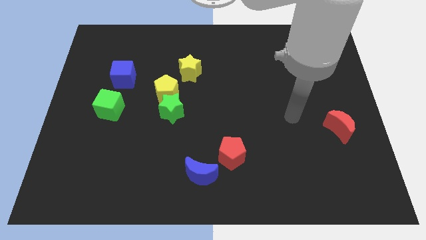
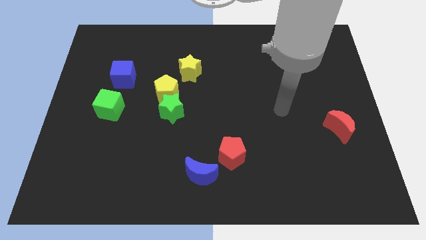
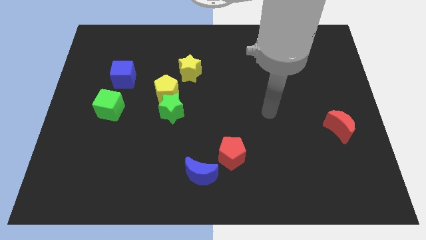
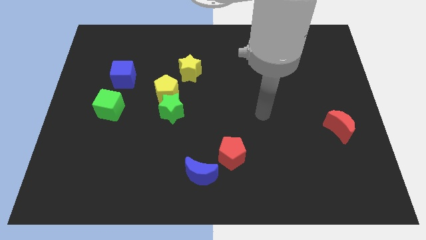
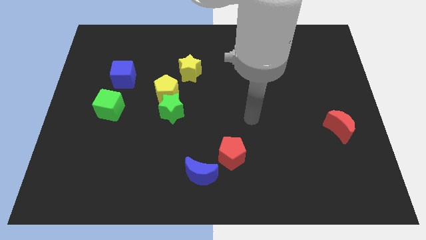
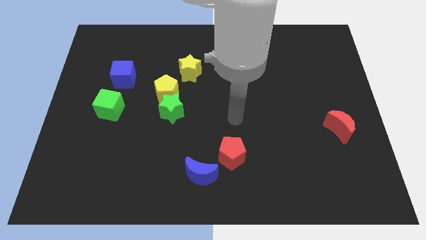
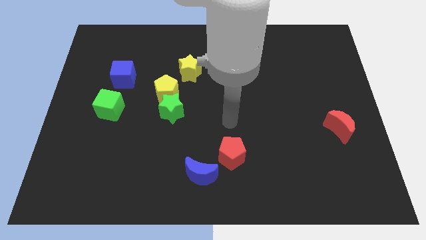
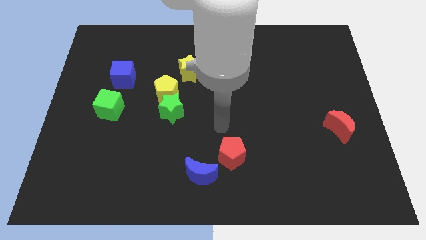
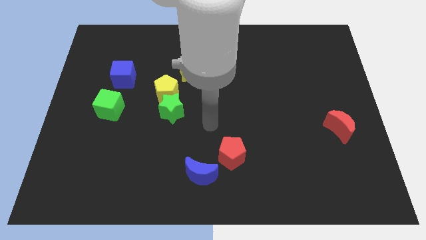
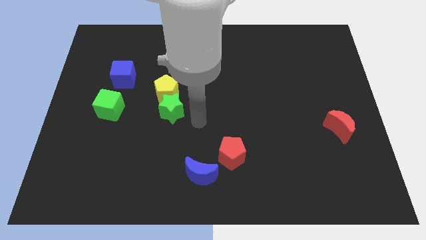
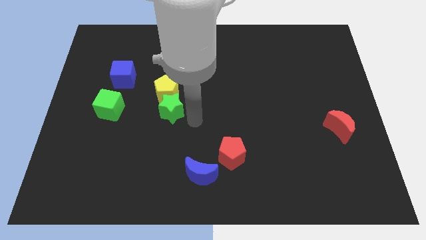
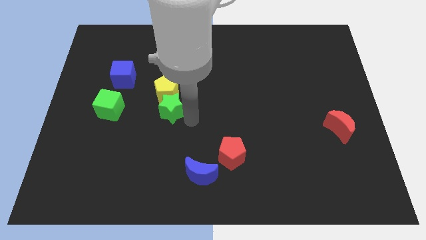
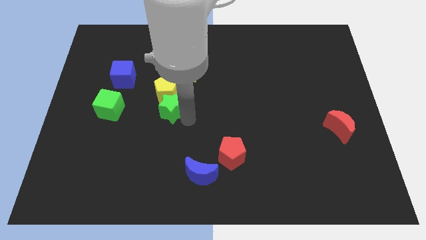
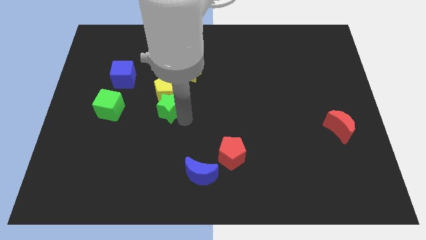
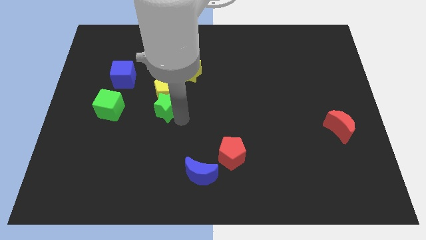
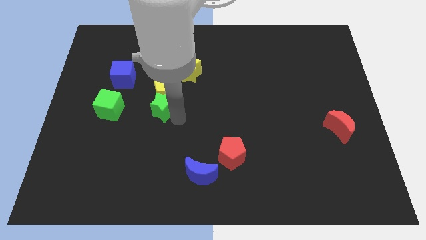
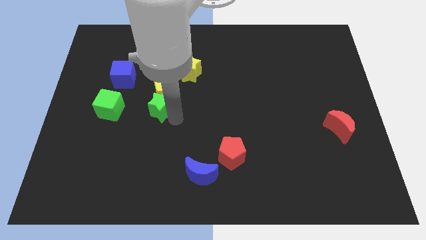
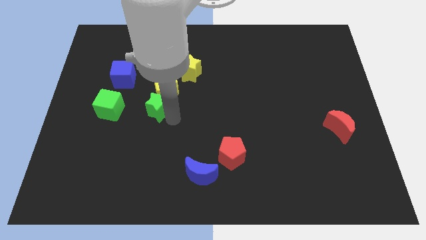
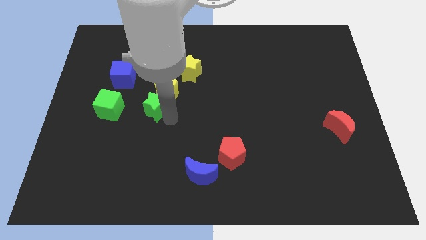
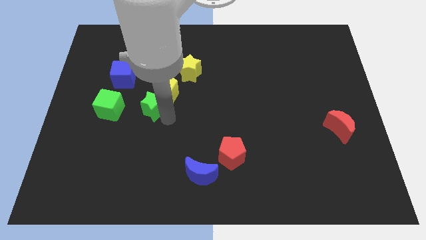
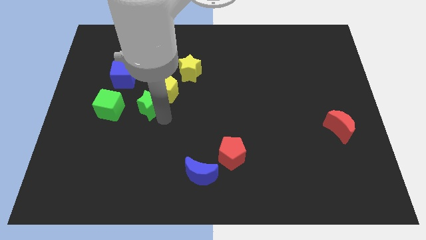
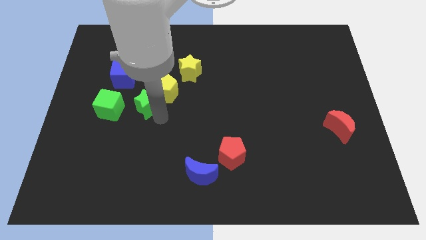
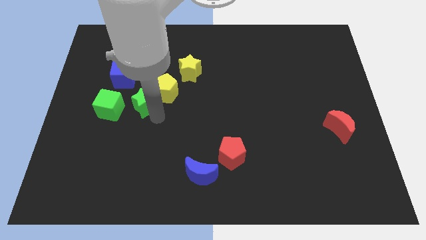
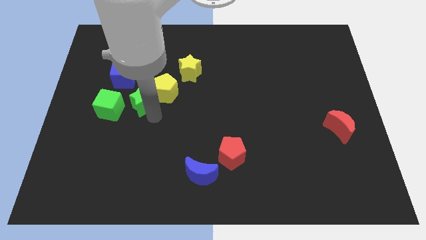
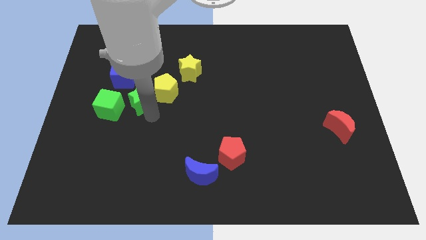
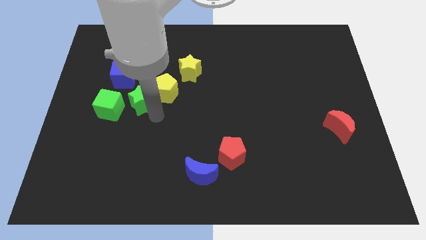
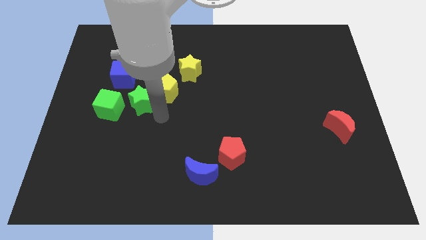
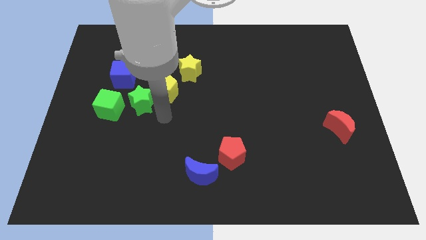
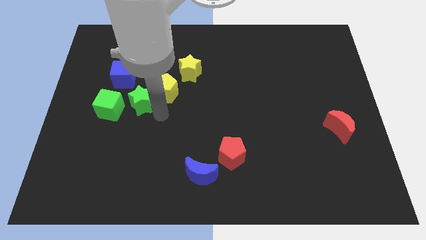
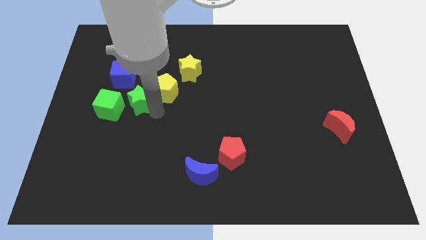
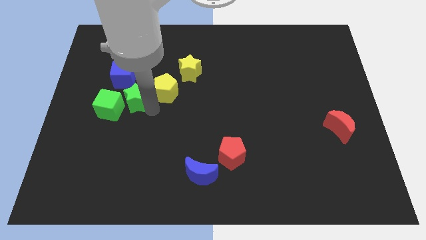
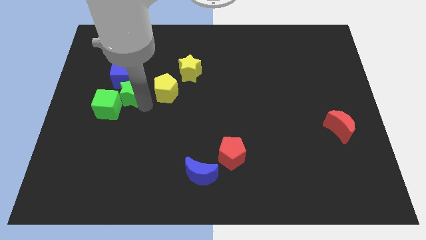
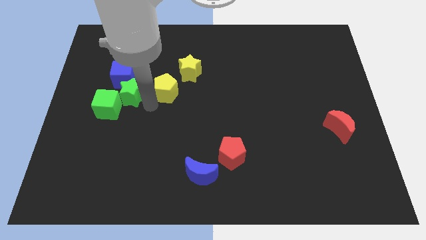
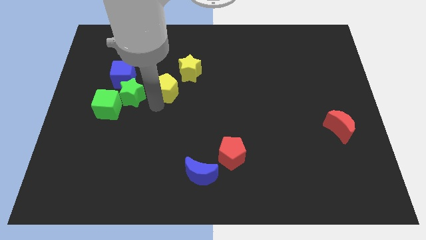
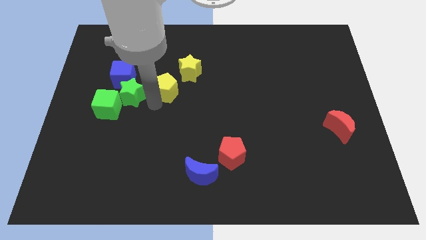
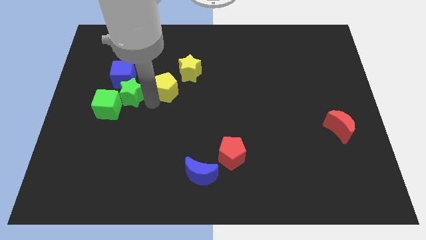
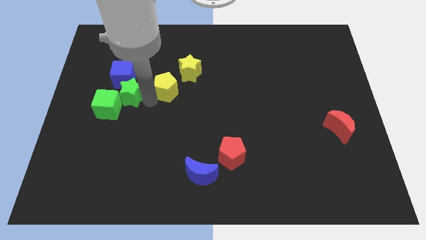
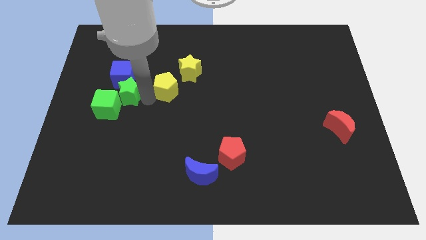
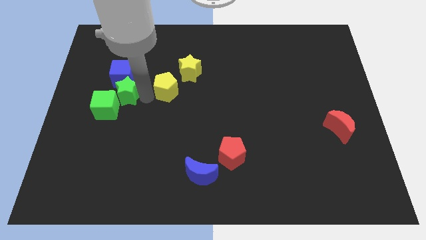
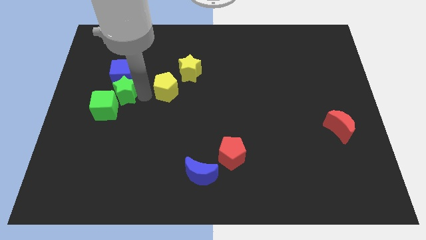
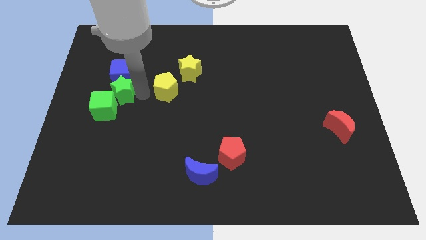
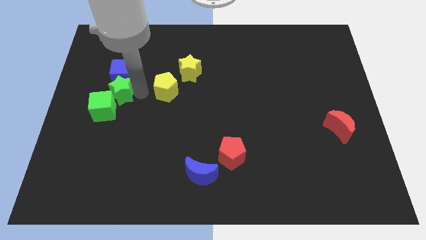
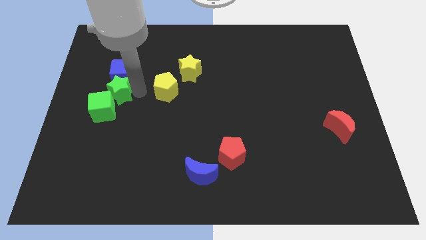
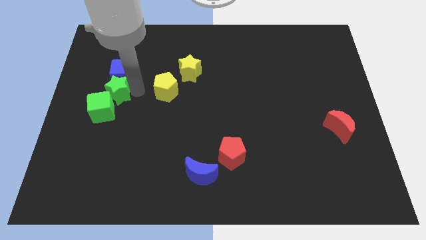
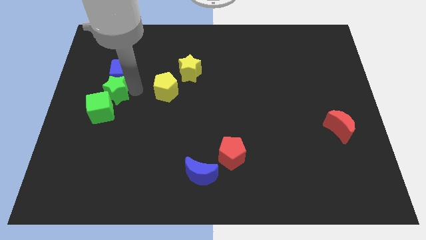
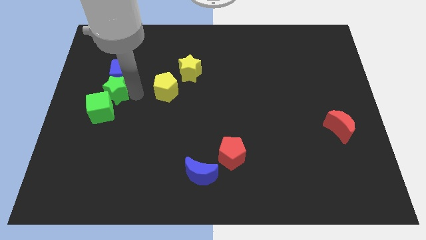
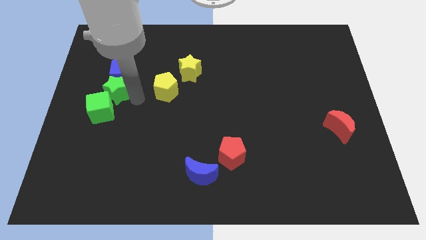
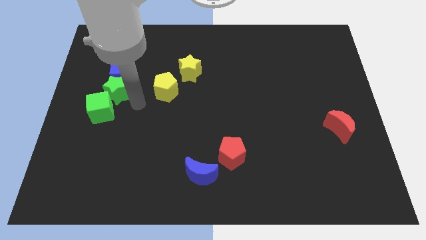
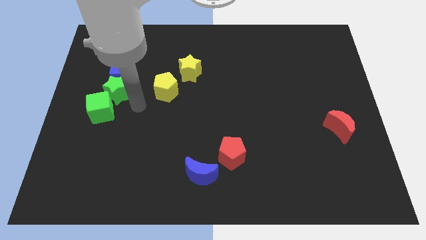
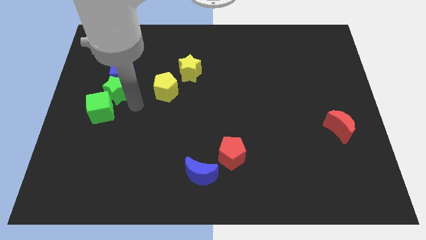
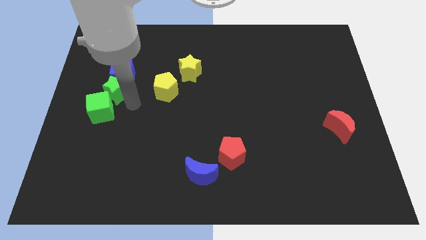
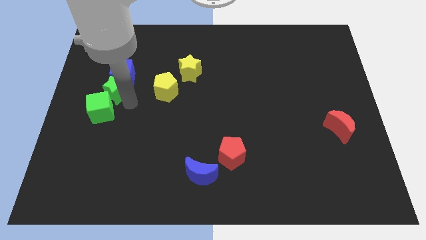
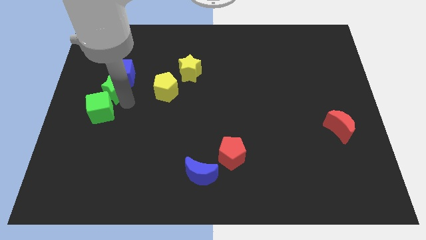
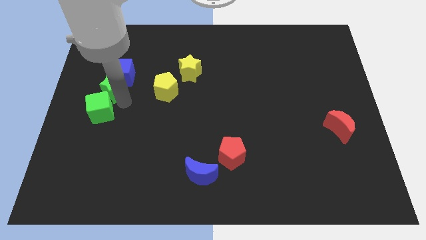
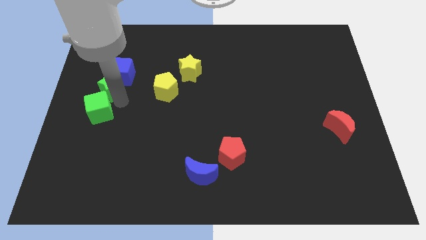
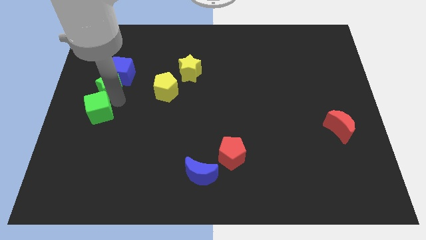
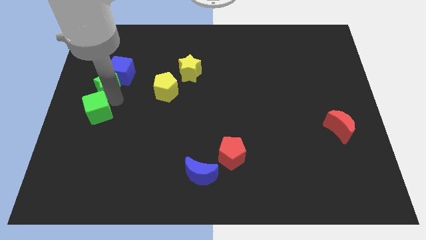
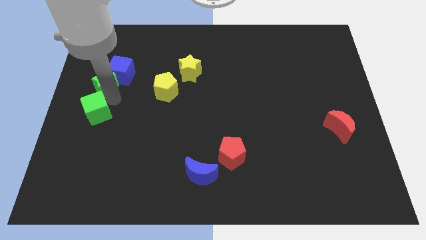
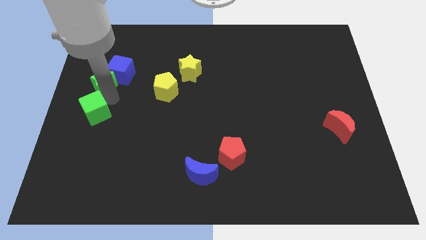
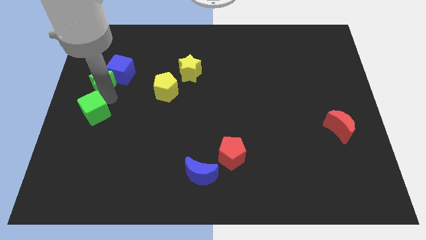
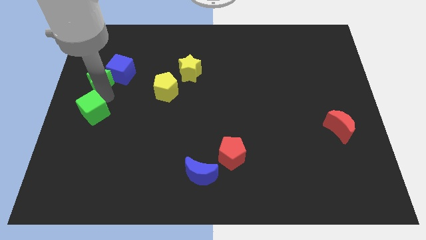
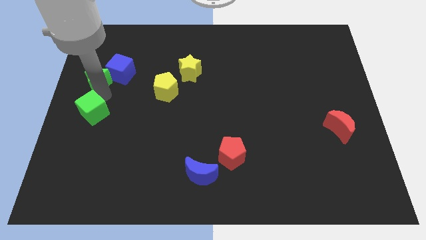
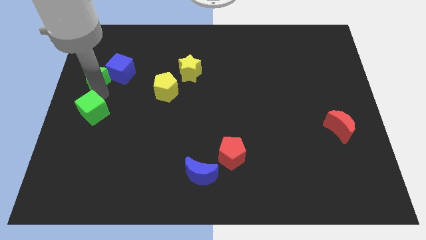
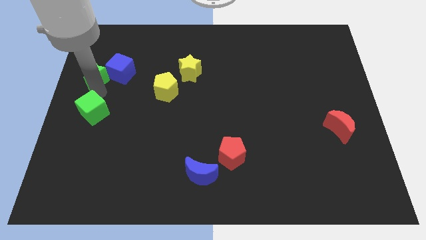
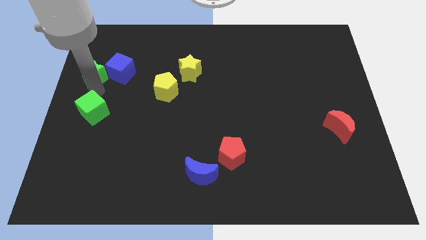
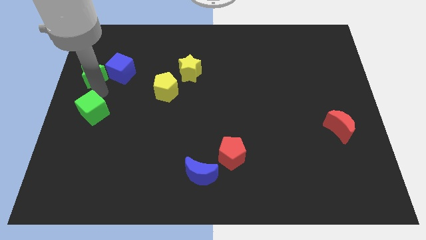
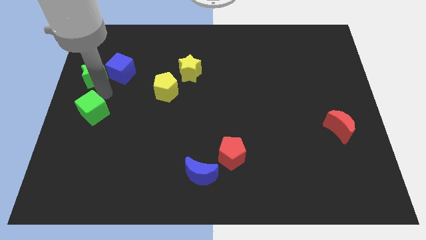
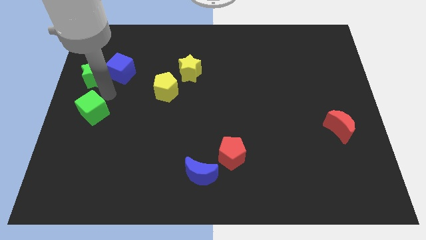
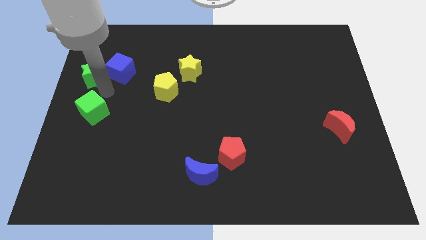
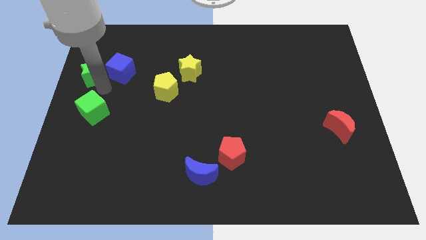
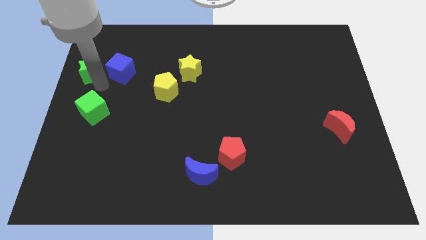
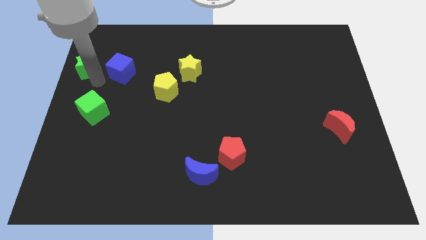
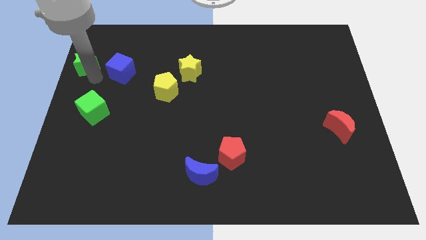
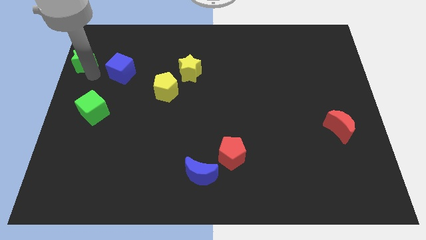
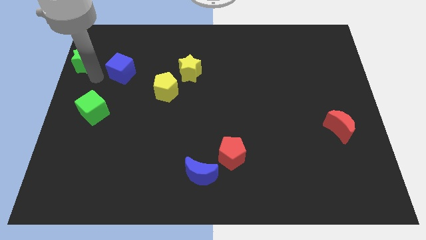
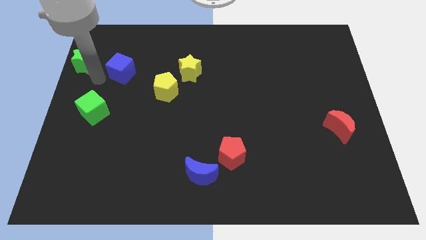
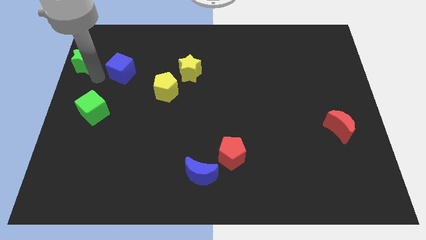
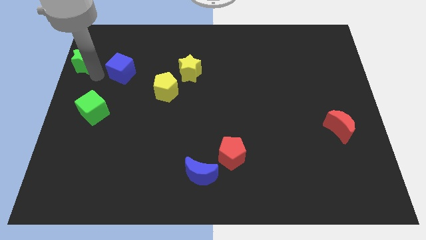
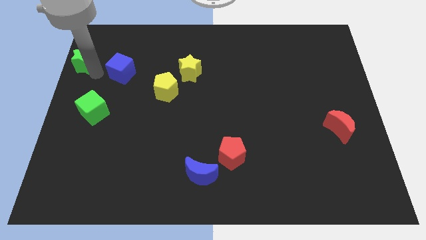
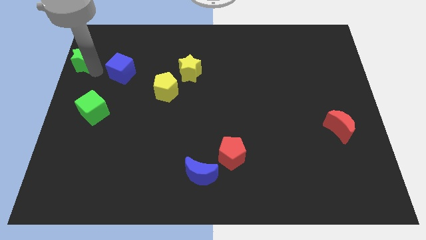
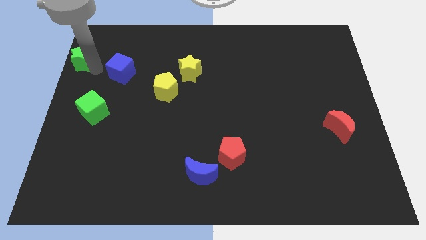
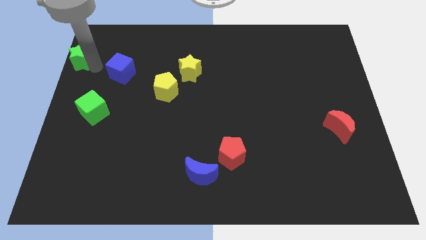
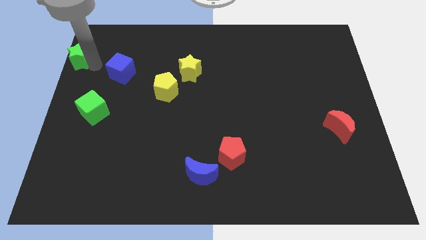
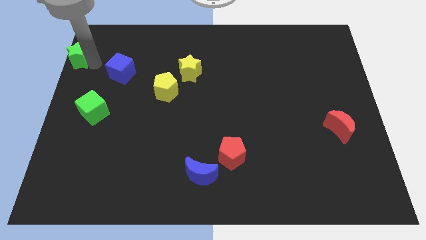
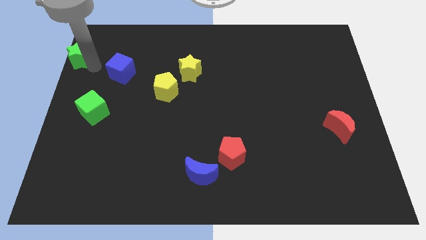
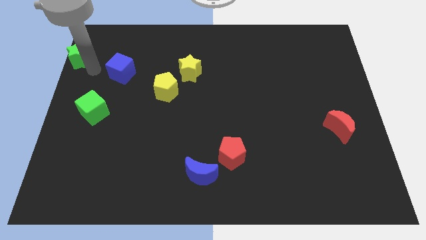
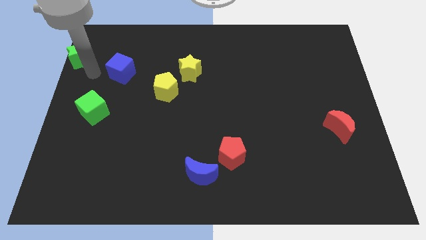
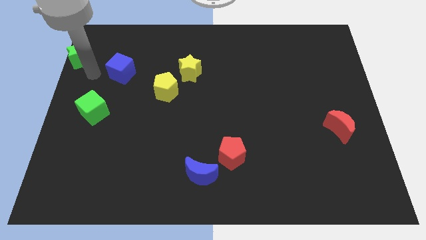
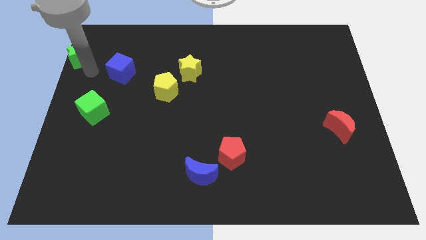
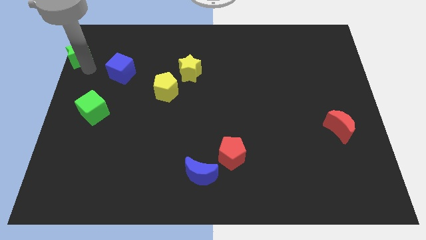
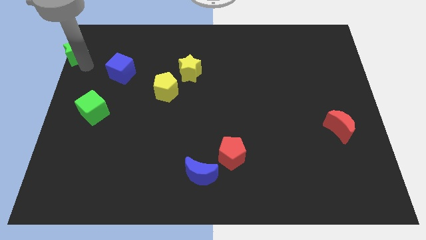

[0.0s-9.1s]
put the green star to the top left
